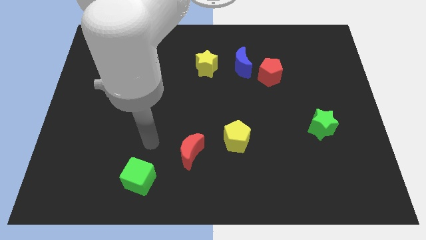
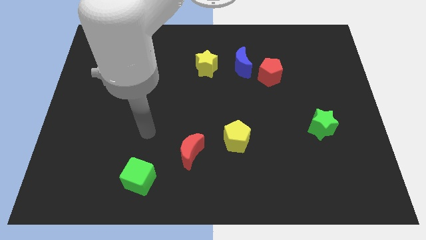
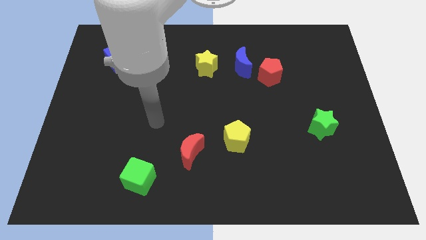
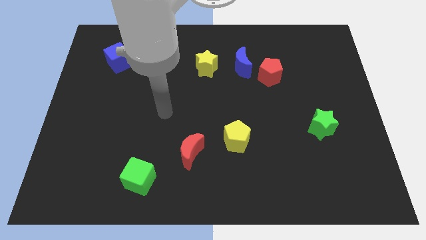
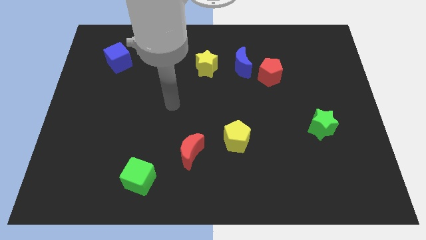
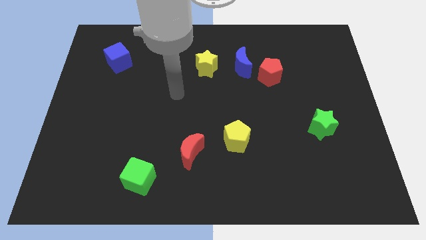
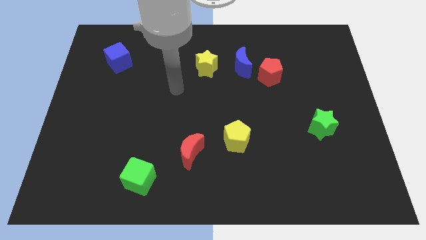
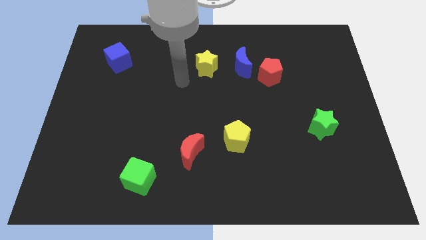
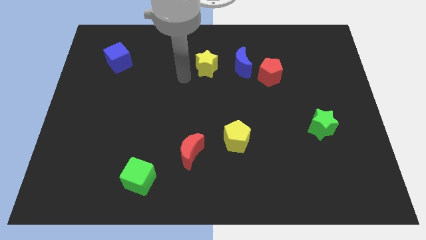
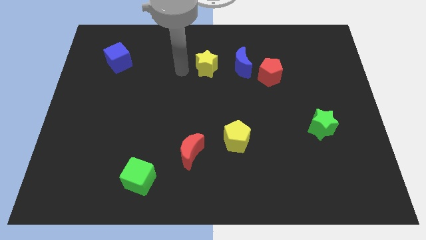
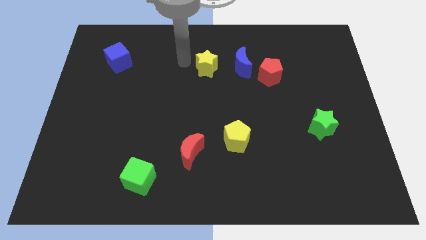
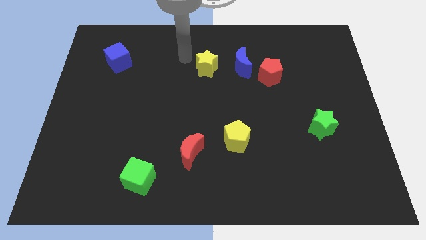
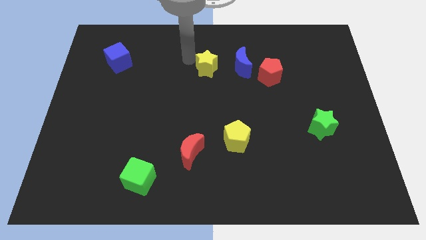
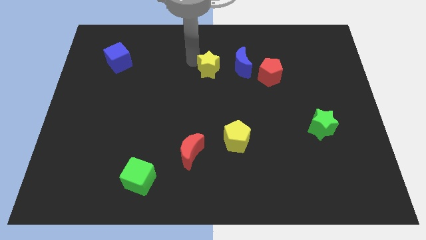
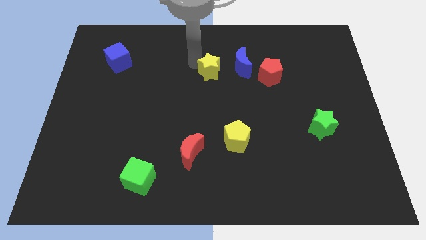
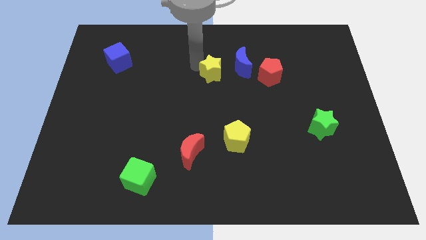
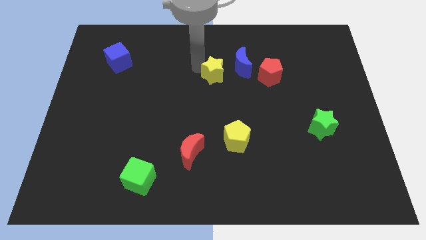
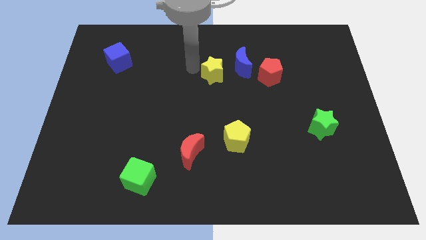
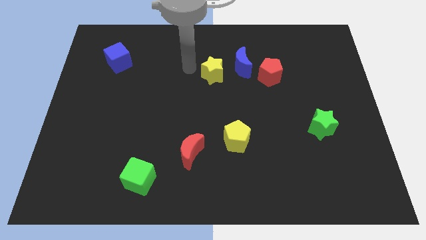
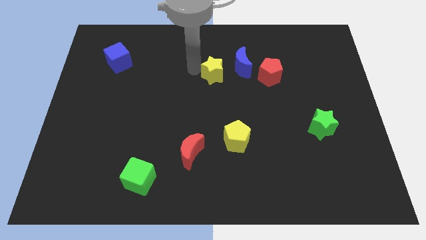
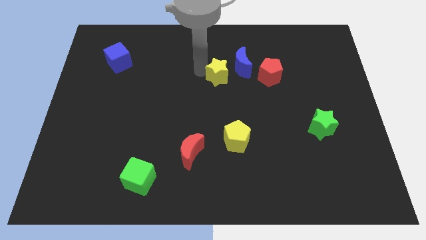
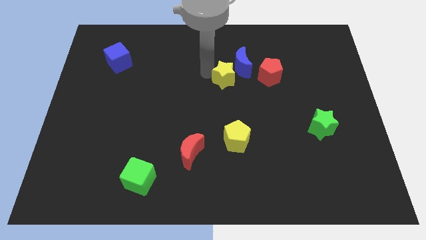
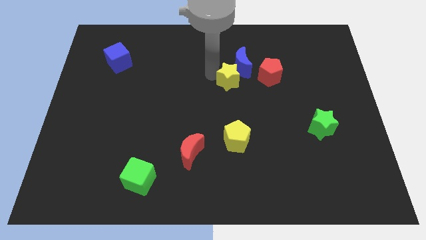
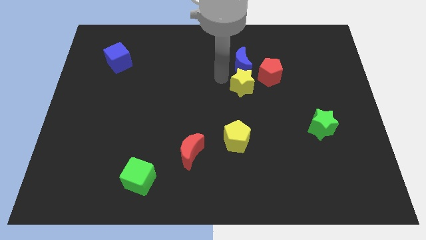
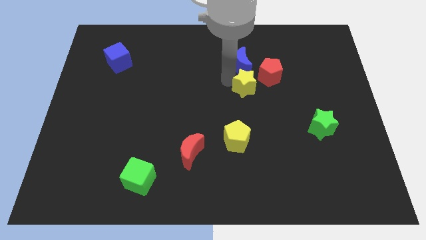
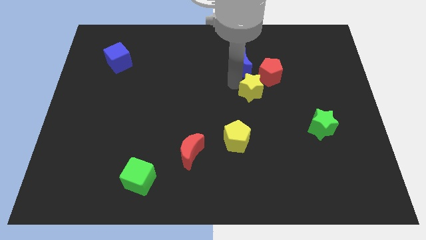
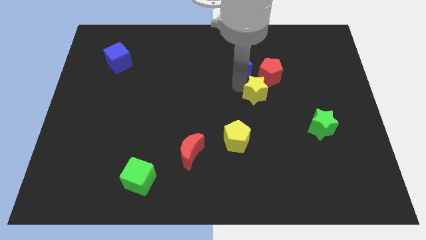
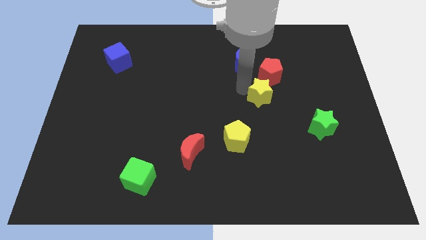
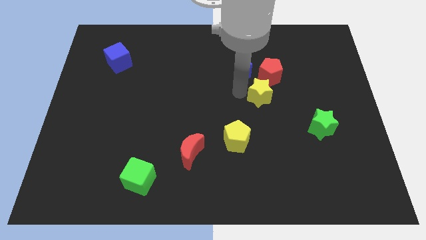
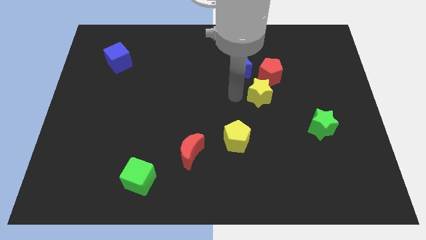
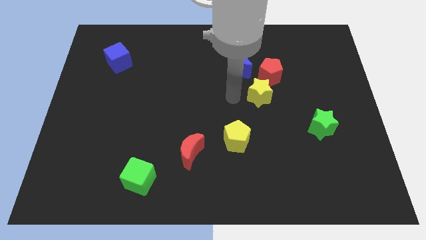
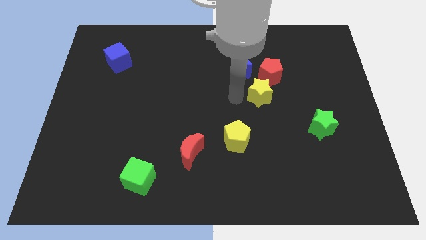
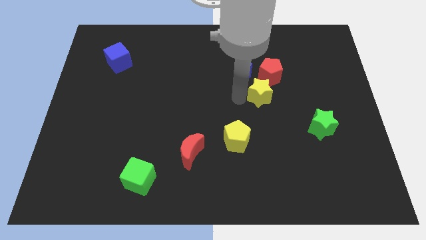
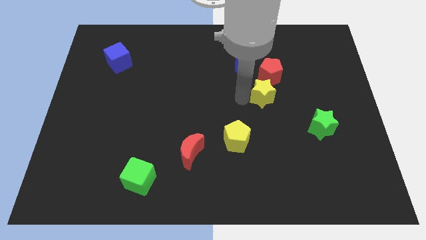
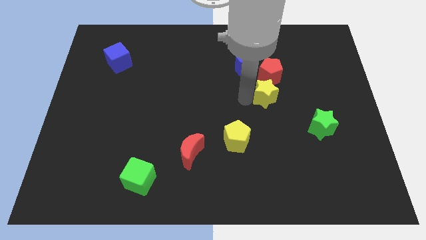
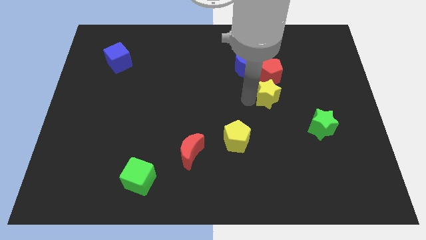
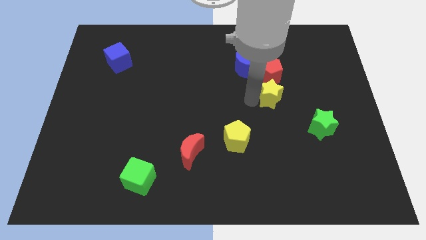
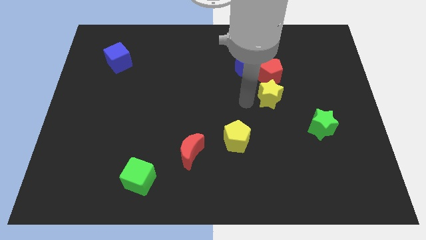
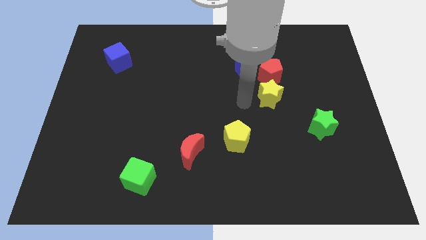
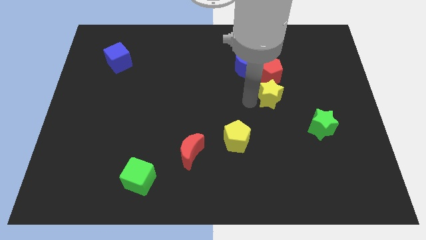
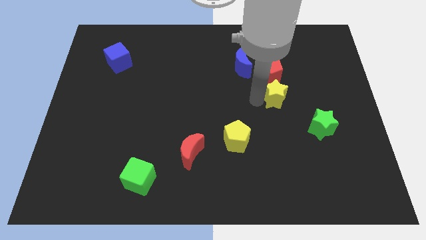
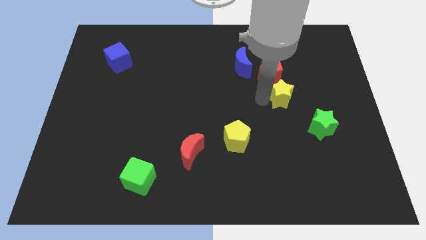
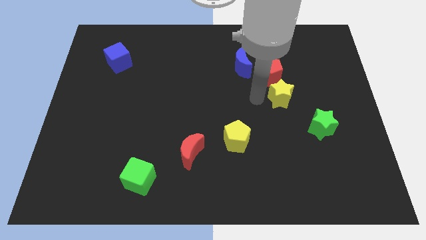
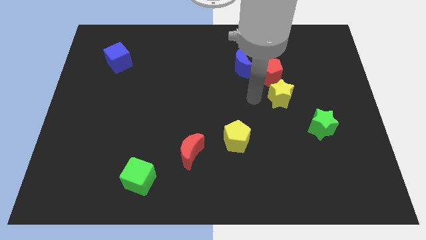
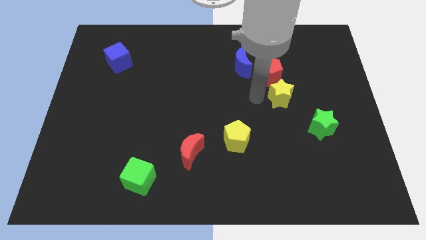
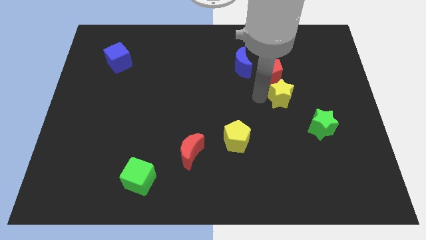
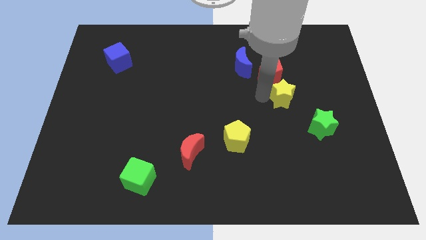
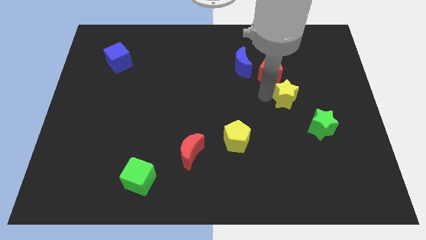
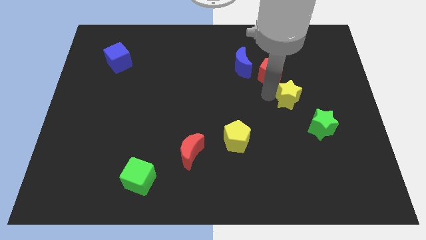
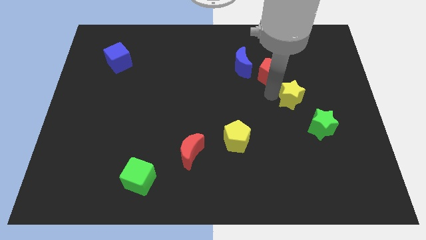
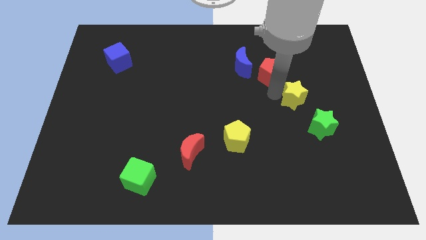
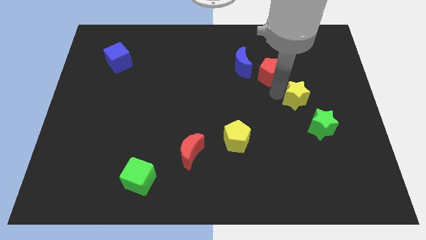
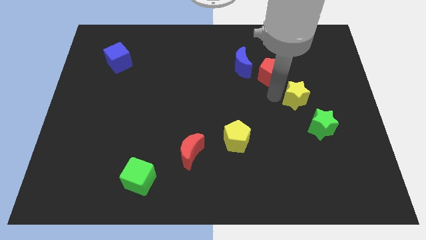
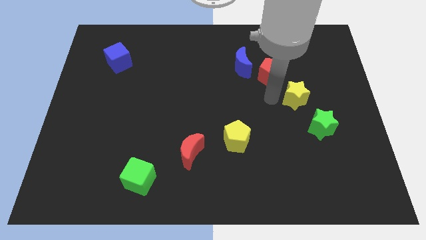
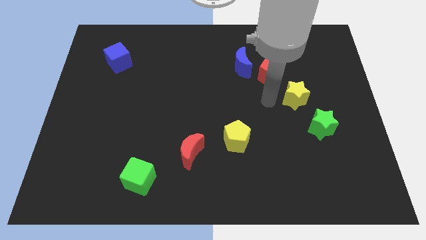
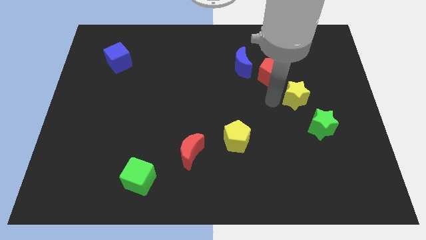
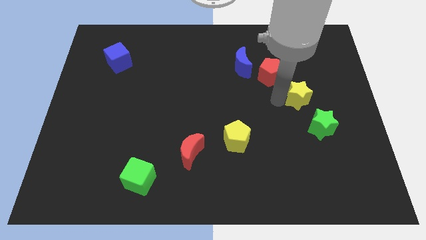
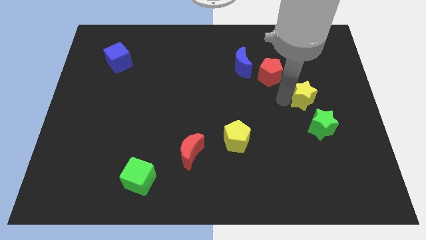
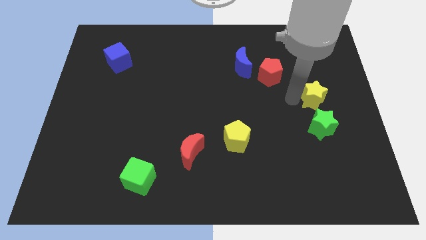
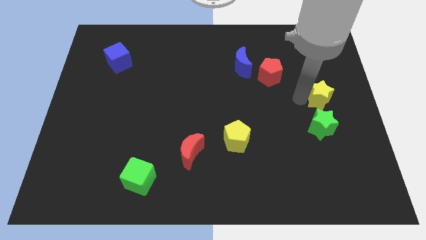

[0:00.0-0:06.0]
push the yellow star to the center right
